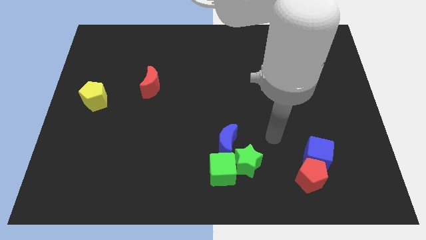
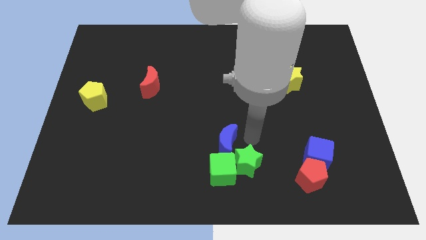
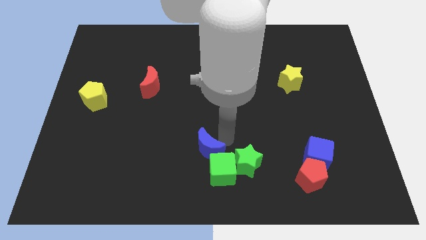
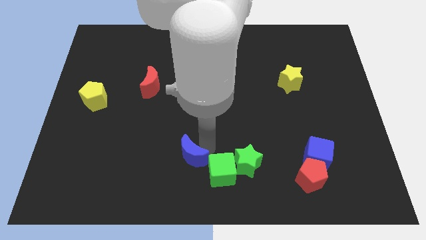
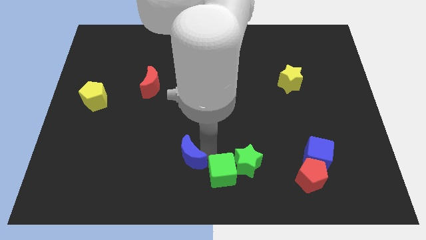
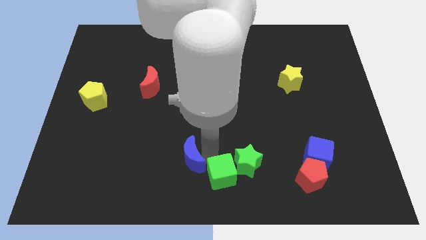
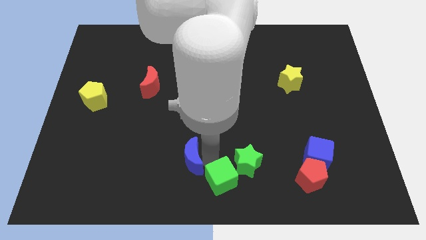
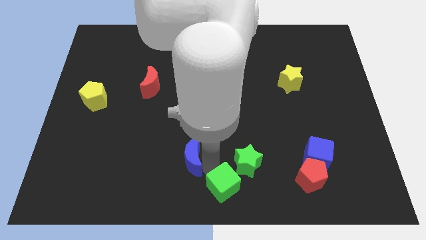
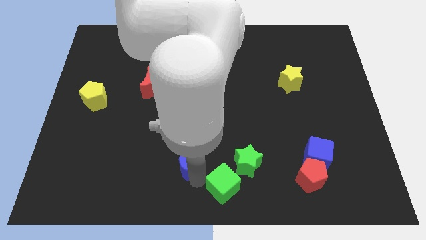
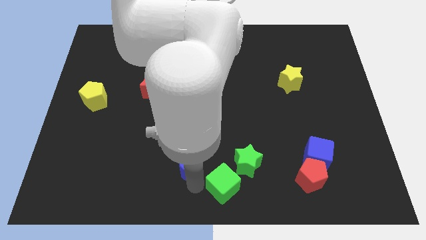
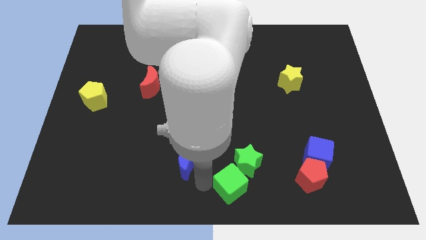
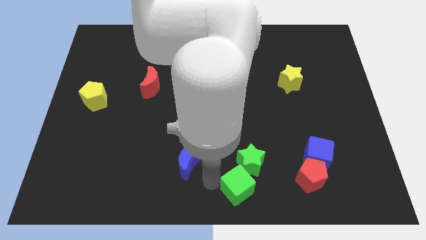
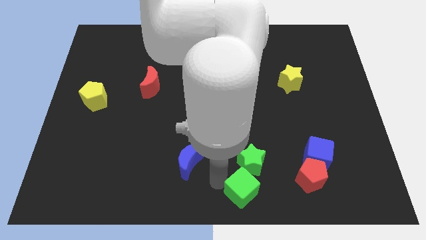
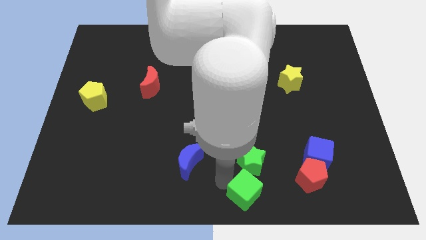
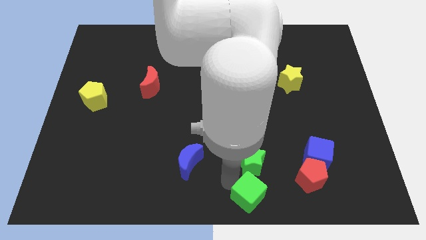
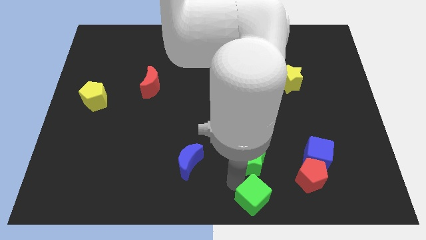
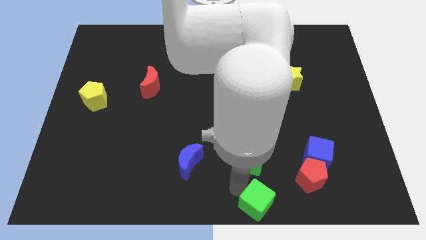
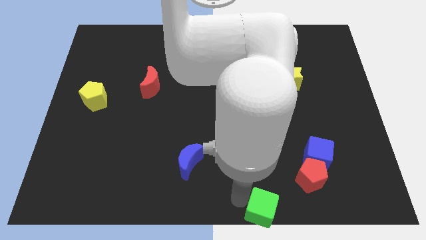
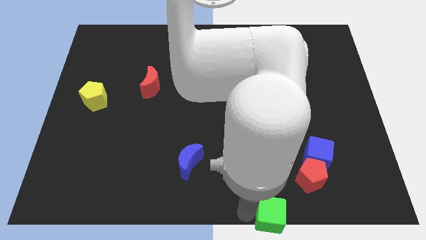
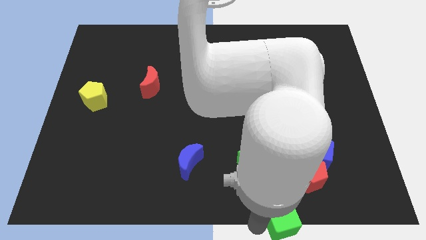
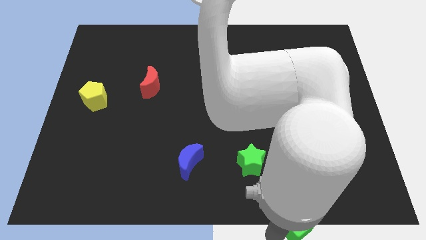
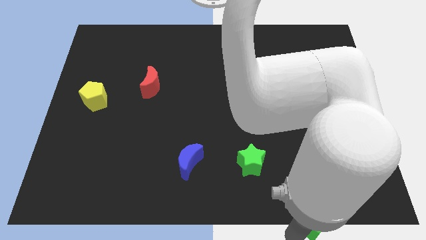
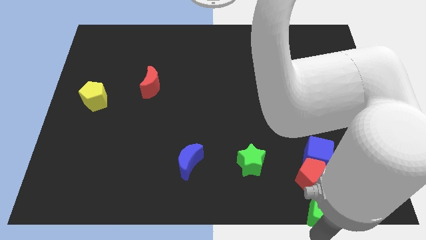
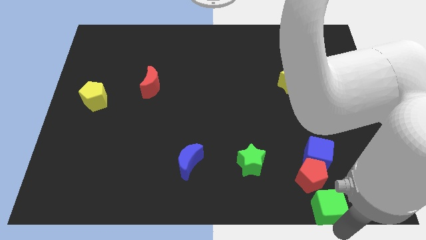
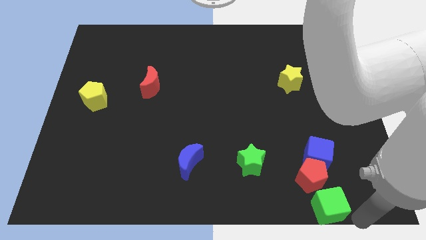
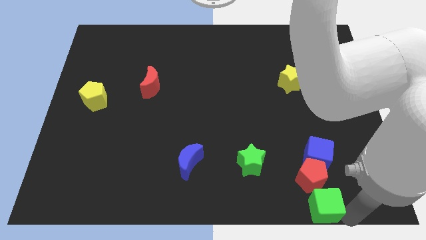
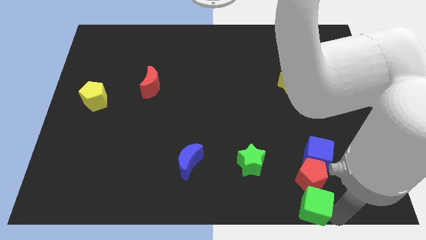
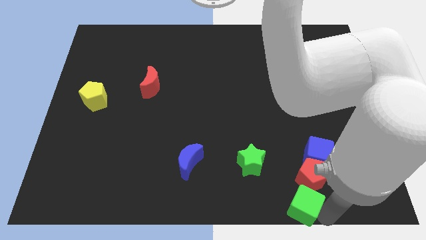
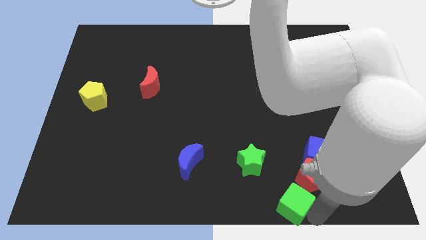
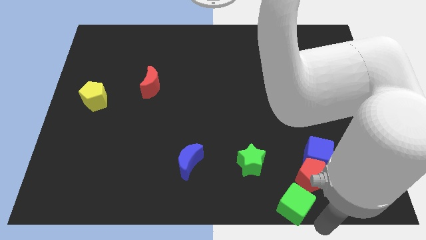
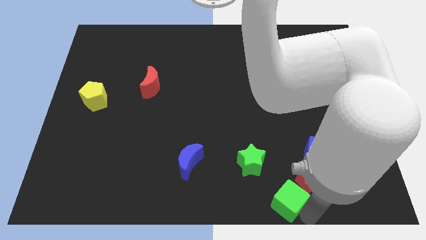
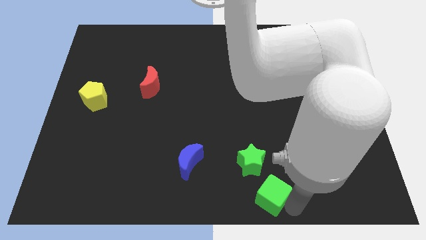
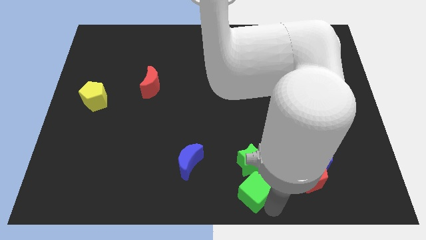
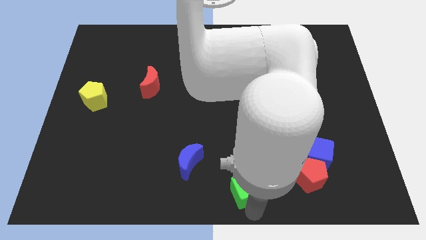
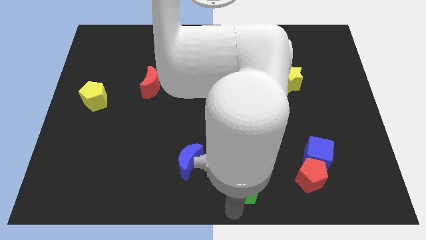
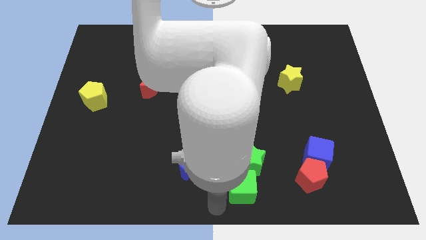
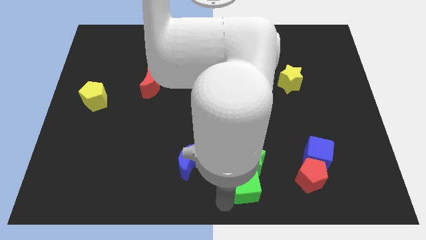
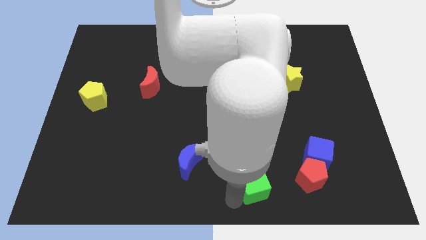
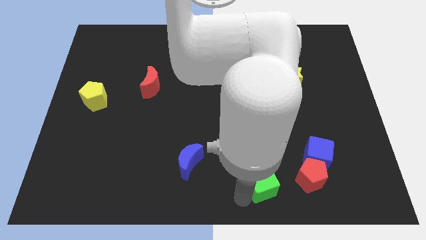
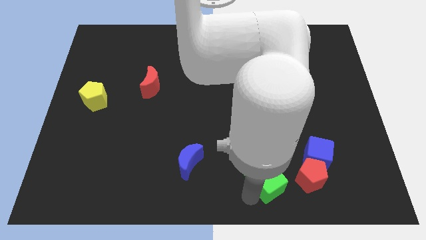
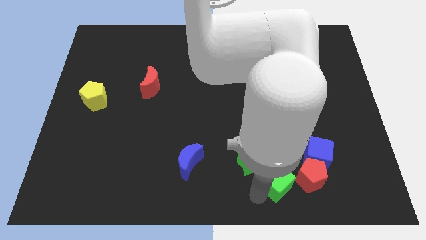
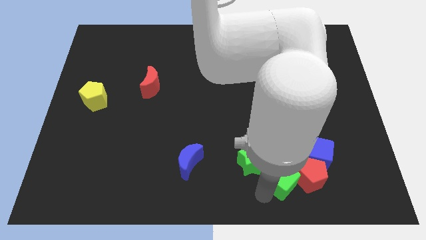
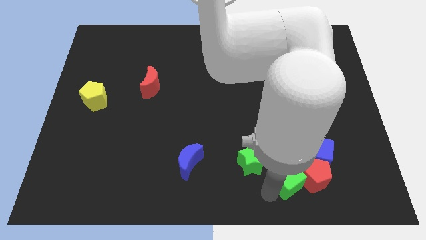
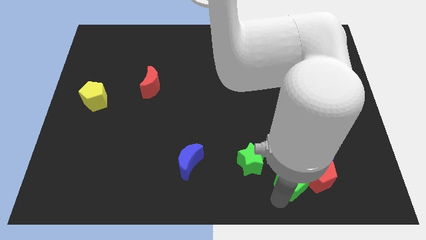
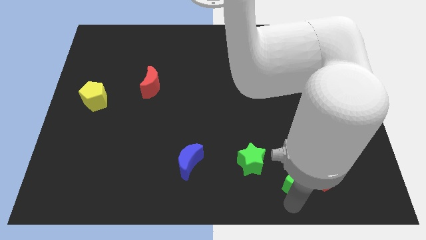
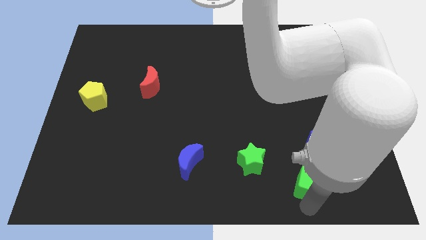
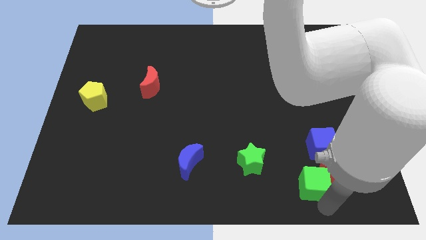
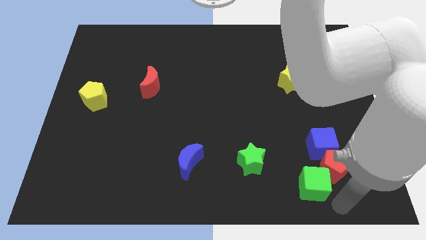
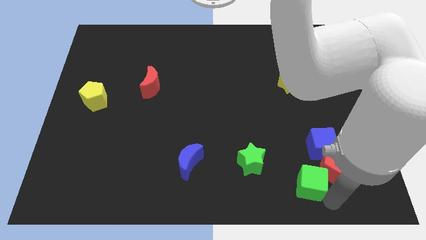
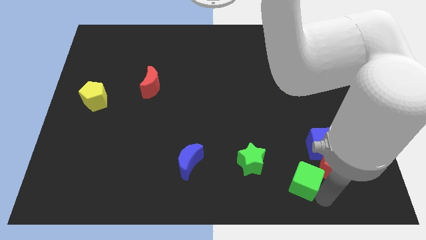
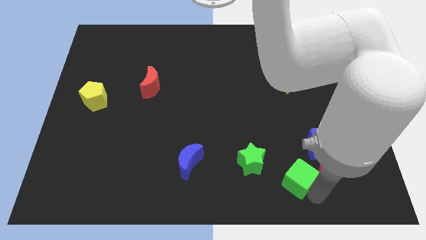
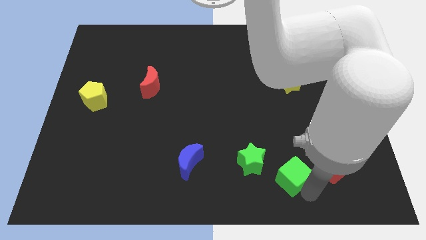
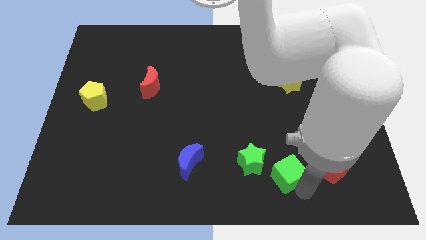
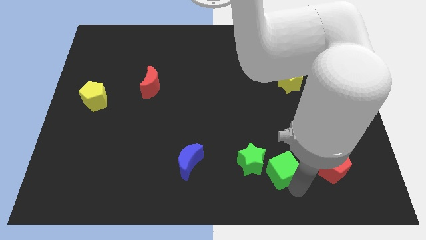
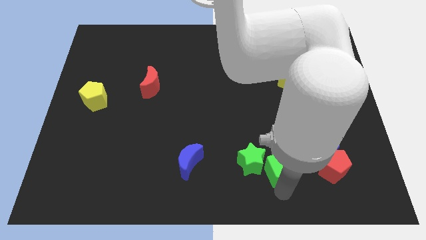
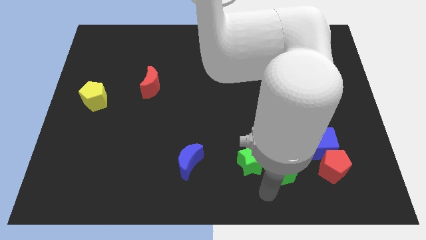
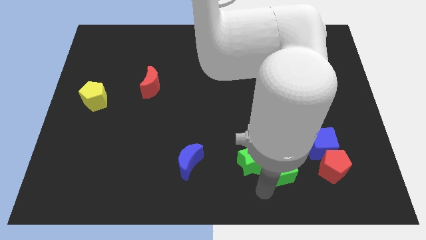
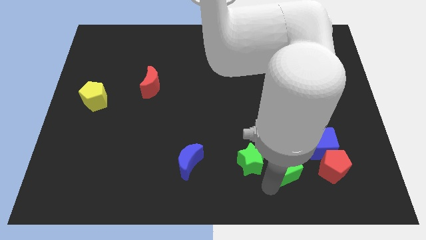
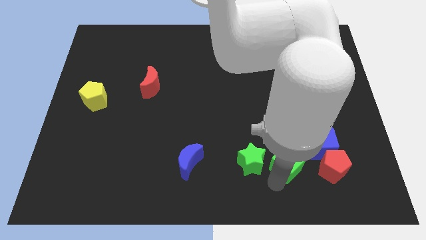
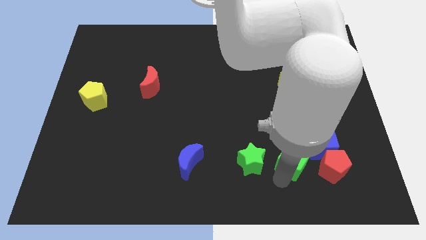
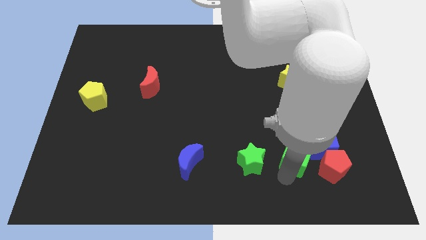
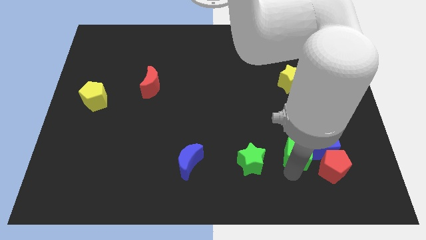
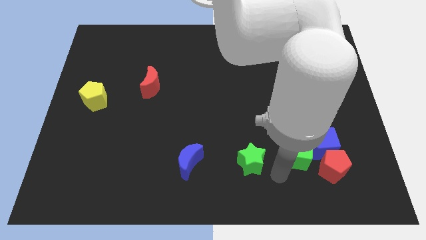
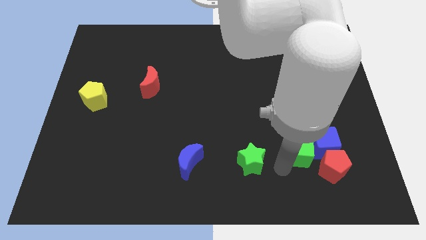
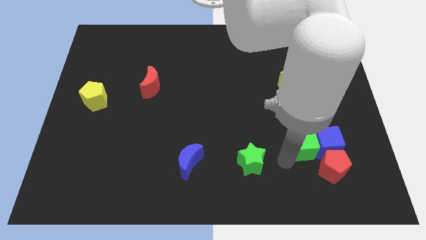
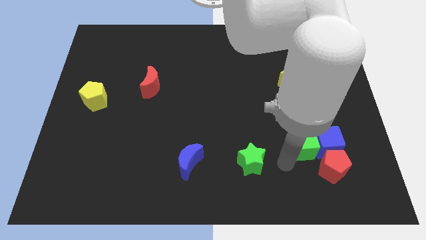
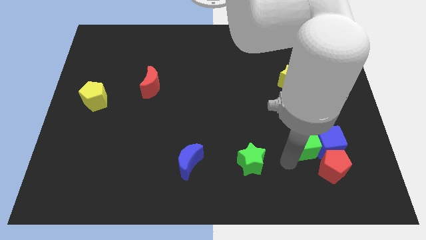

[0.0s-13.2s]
put the green cube to the top side of the red pentagon
